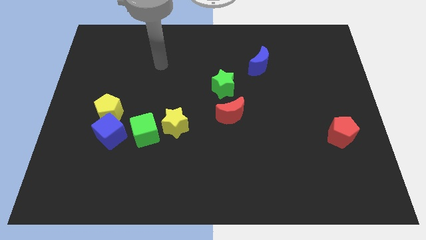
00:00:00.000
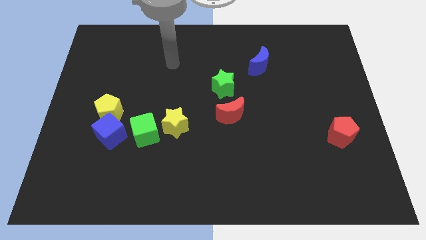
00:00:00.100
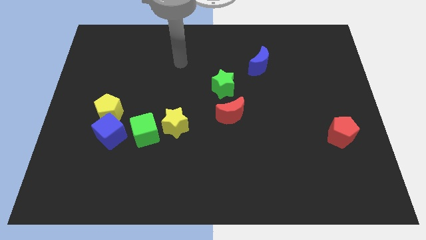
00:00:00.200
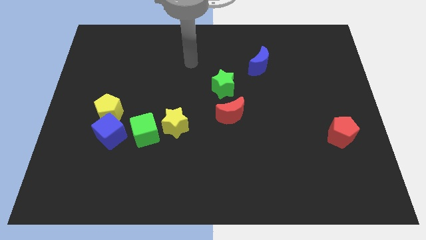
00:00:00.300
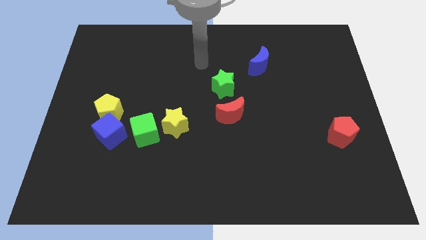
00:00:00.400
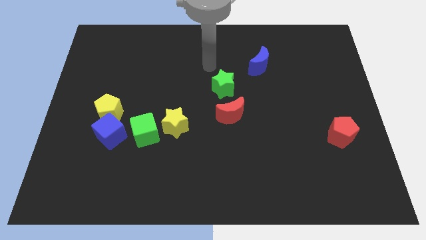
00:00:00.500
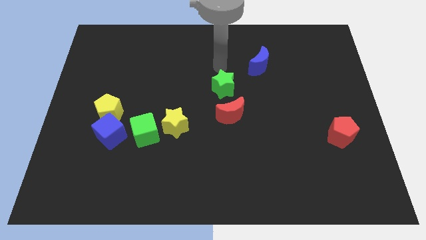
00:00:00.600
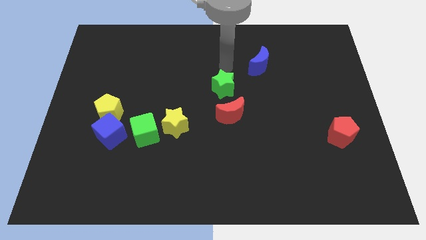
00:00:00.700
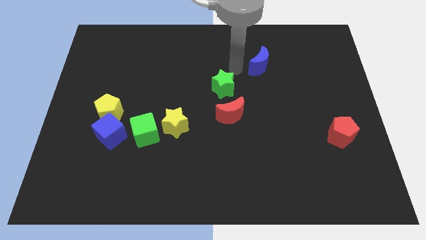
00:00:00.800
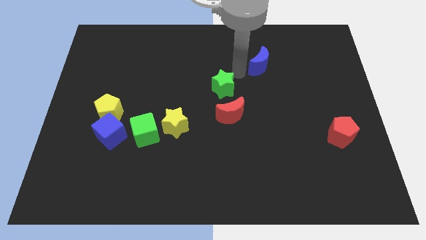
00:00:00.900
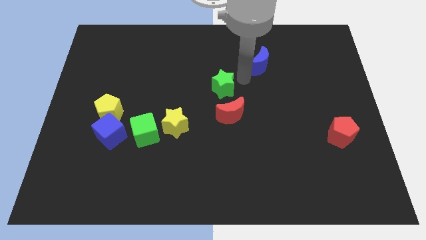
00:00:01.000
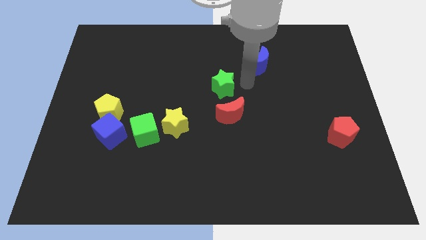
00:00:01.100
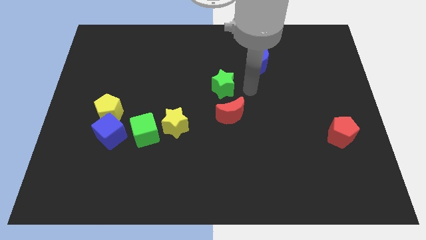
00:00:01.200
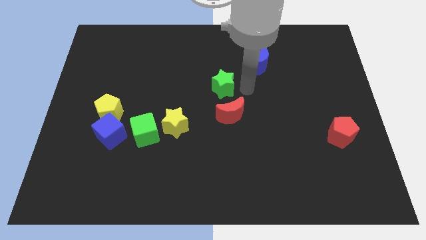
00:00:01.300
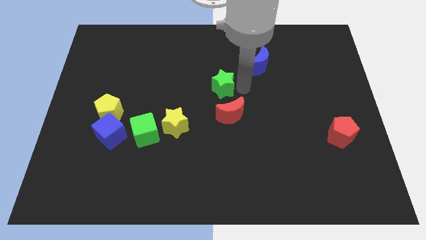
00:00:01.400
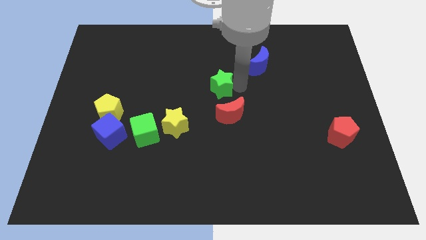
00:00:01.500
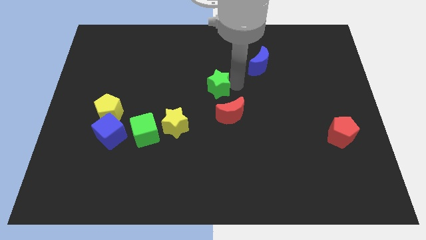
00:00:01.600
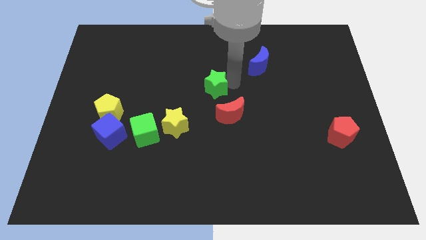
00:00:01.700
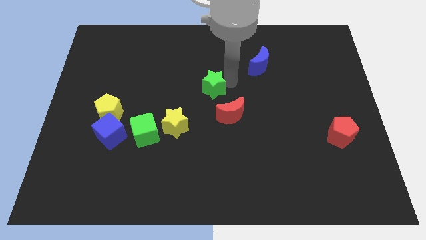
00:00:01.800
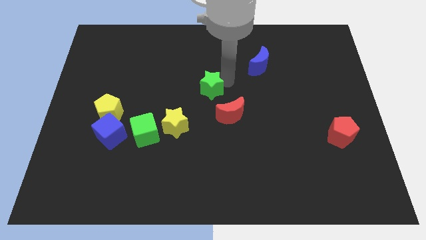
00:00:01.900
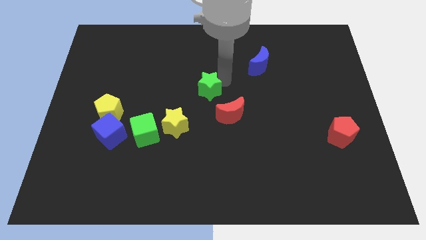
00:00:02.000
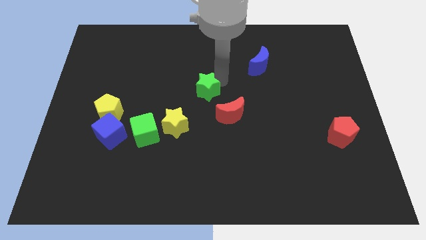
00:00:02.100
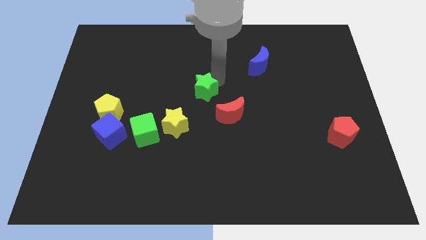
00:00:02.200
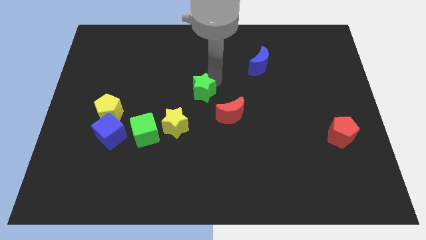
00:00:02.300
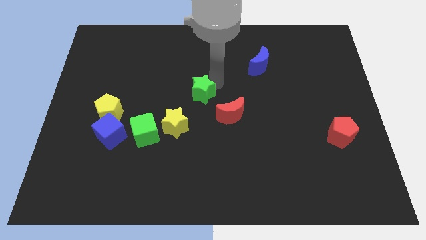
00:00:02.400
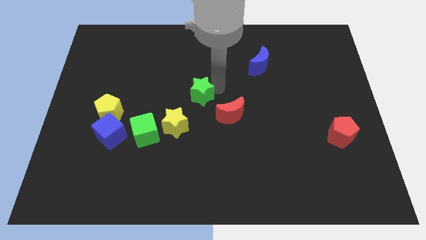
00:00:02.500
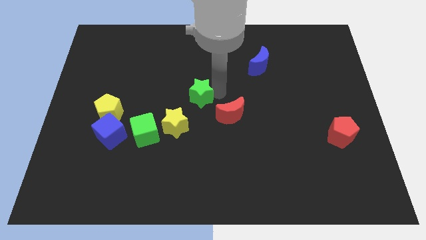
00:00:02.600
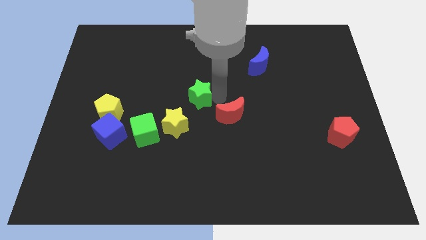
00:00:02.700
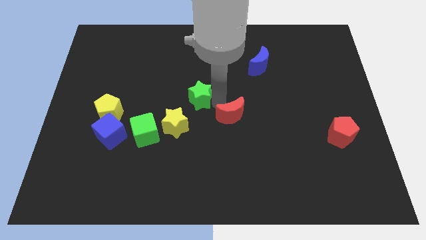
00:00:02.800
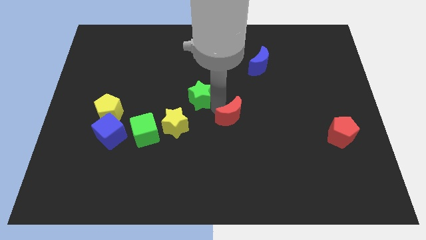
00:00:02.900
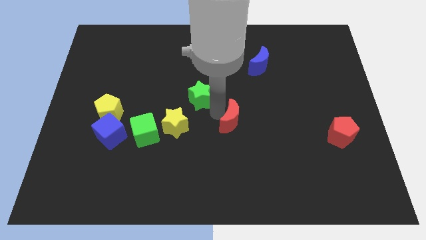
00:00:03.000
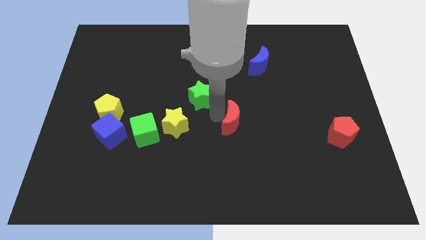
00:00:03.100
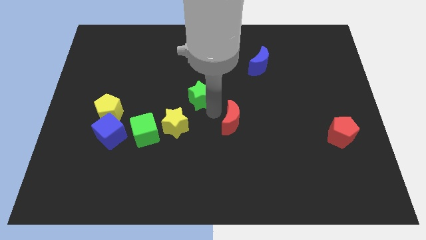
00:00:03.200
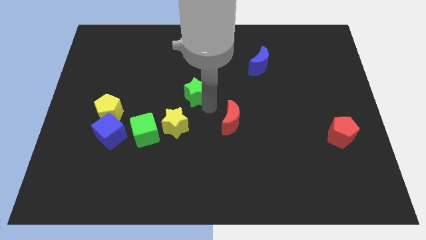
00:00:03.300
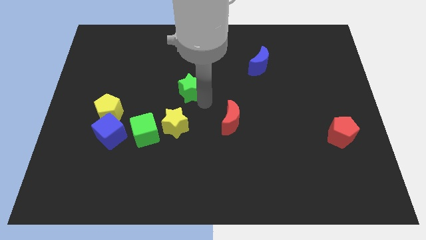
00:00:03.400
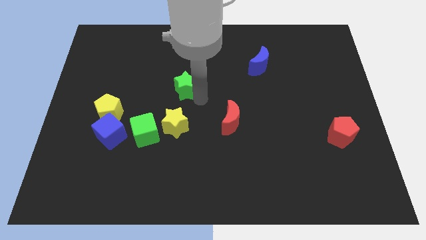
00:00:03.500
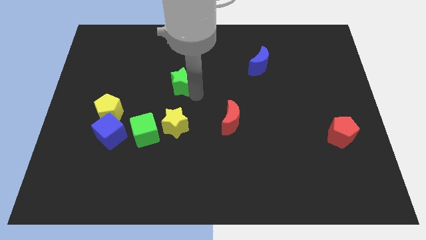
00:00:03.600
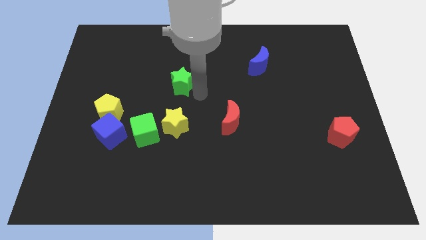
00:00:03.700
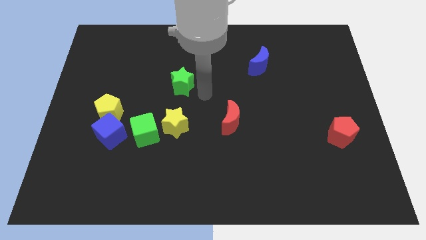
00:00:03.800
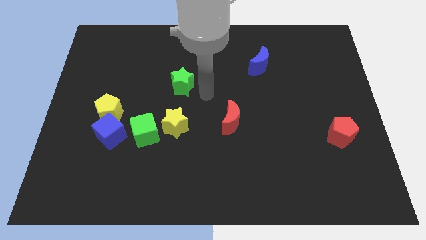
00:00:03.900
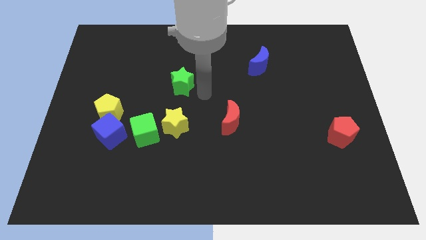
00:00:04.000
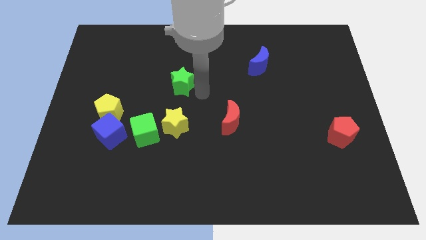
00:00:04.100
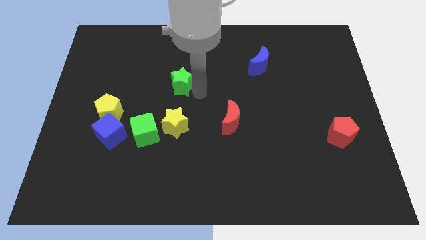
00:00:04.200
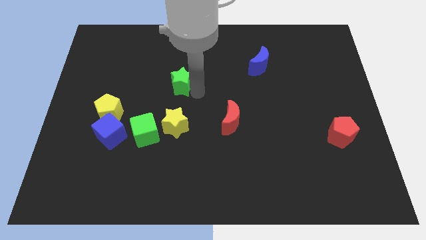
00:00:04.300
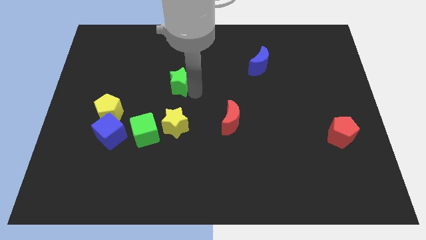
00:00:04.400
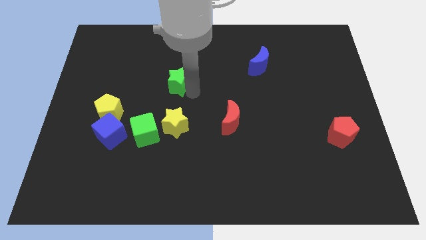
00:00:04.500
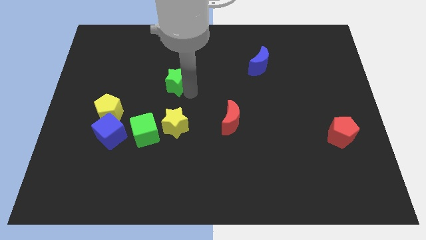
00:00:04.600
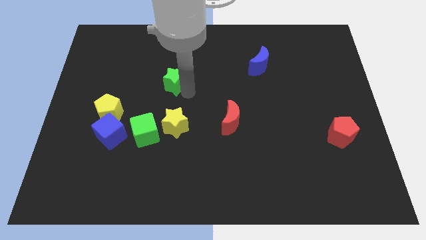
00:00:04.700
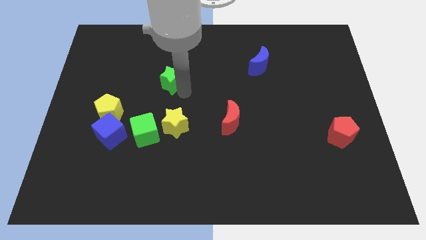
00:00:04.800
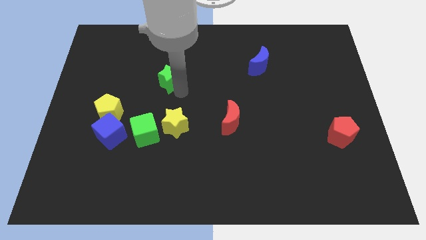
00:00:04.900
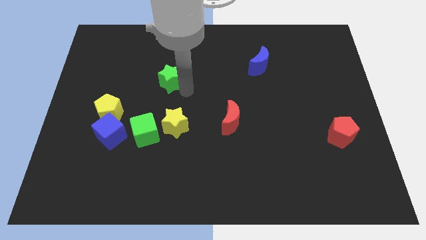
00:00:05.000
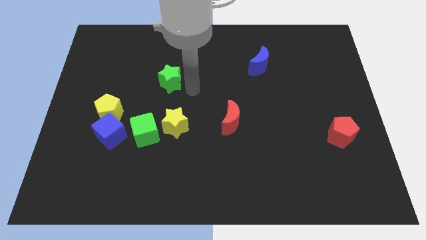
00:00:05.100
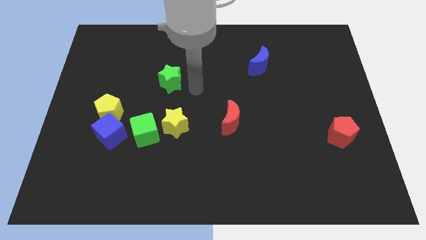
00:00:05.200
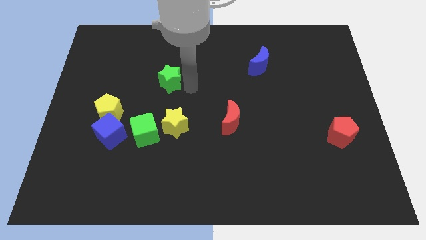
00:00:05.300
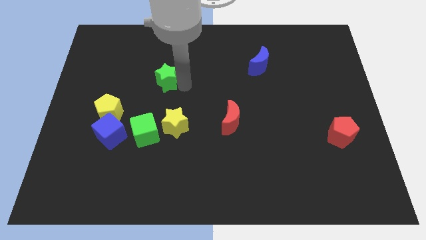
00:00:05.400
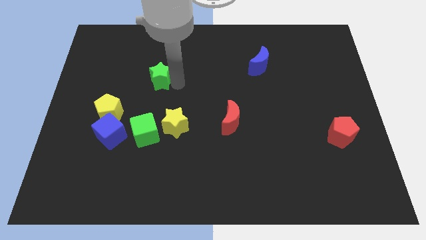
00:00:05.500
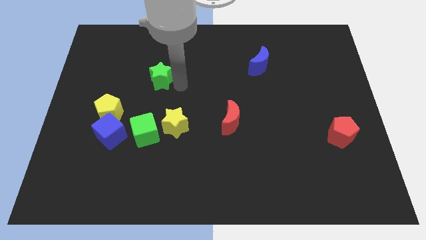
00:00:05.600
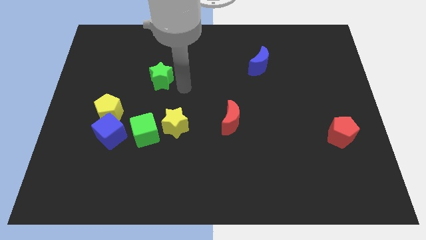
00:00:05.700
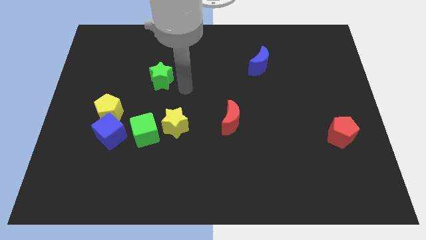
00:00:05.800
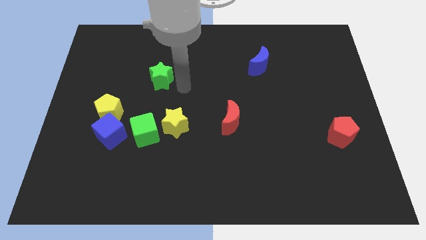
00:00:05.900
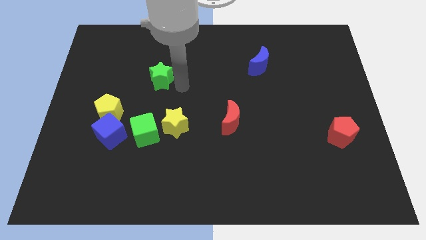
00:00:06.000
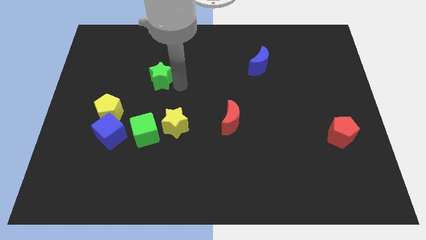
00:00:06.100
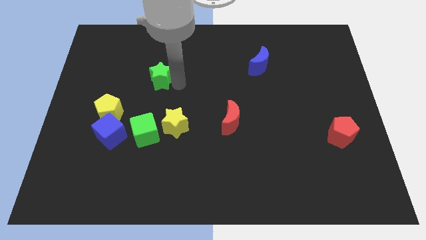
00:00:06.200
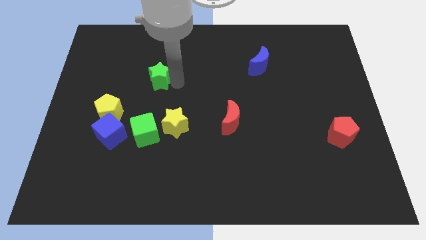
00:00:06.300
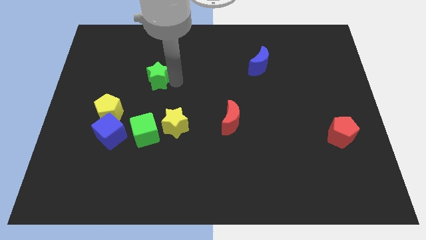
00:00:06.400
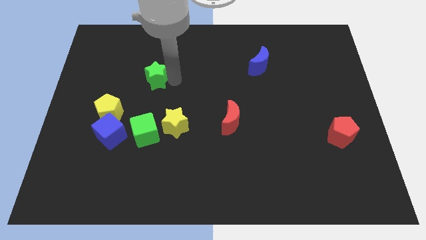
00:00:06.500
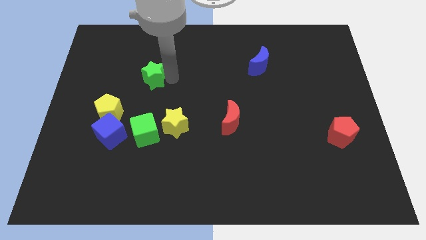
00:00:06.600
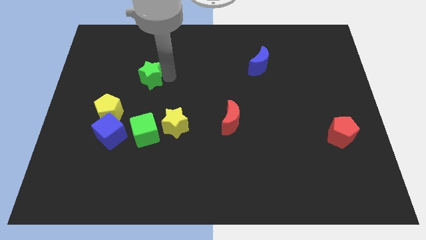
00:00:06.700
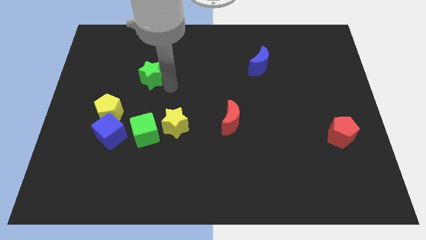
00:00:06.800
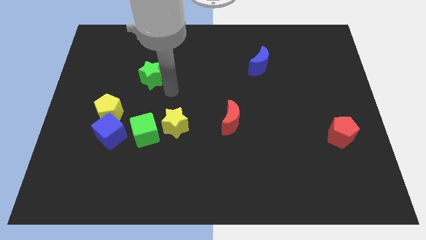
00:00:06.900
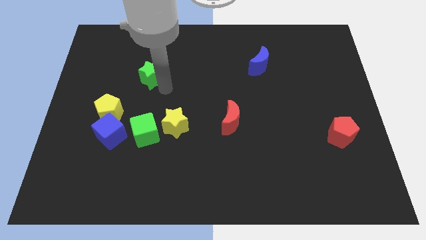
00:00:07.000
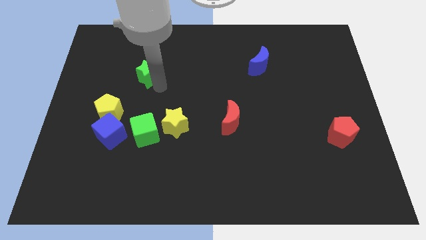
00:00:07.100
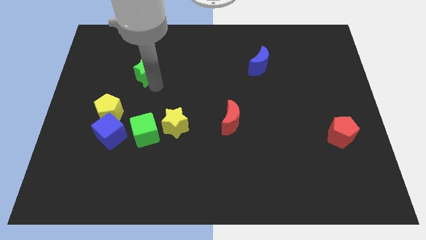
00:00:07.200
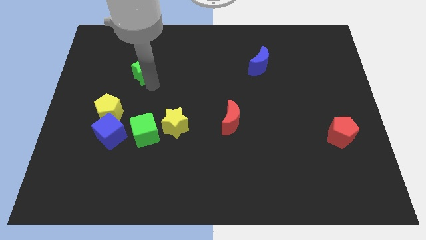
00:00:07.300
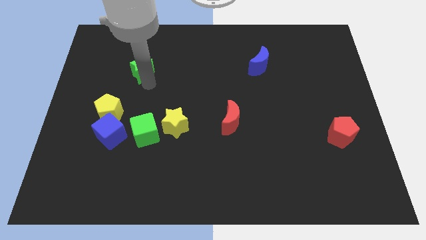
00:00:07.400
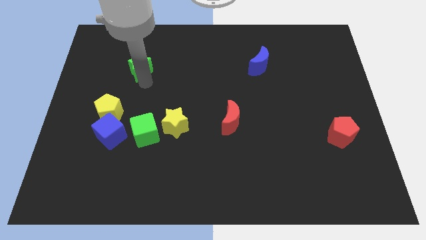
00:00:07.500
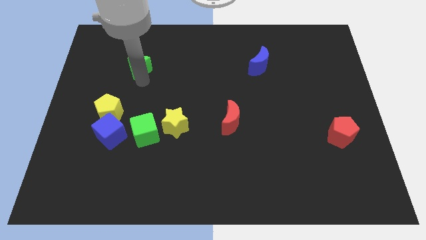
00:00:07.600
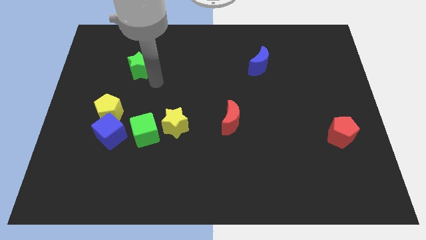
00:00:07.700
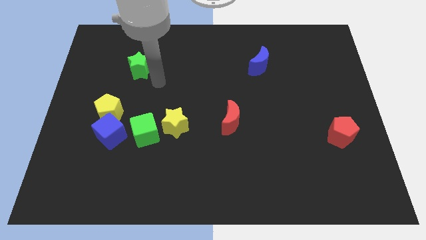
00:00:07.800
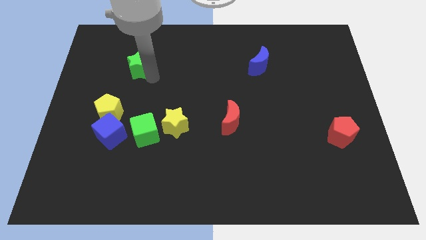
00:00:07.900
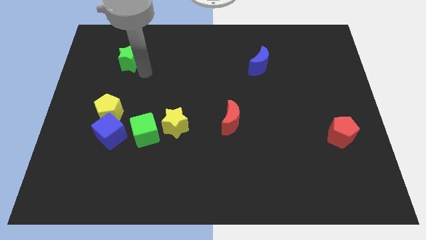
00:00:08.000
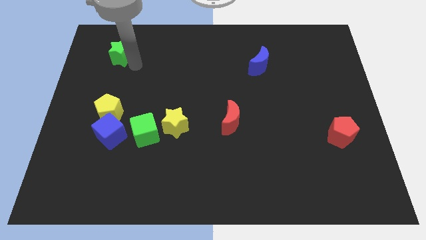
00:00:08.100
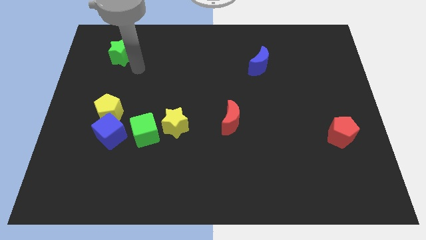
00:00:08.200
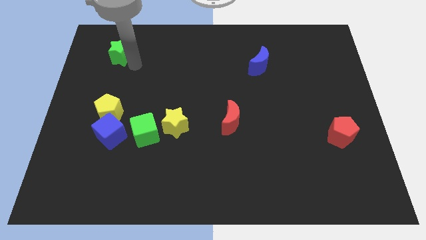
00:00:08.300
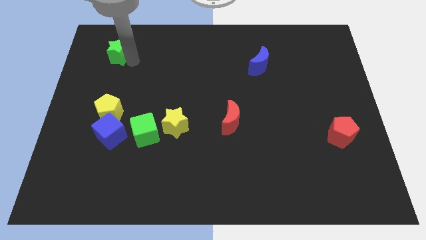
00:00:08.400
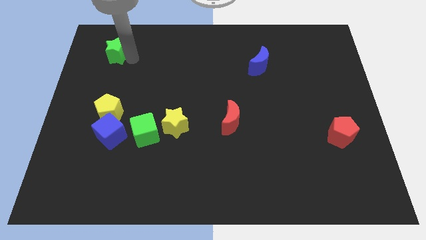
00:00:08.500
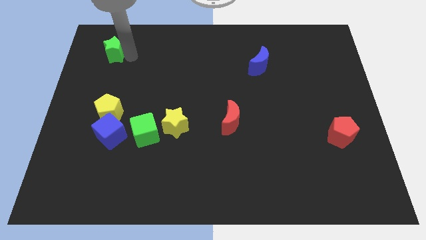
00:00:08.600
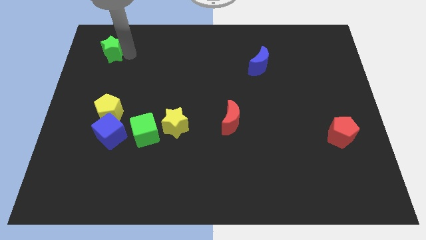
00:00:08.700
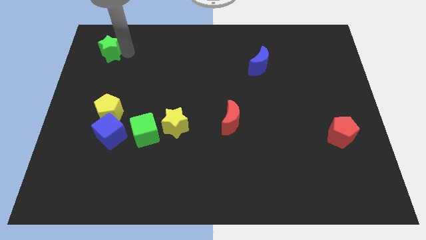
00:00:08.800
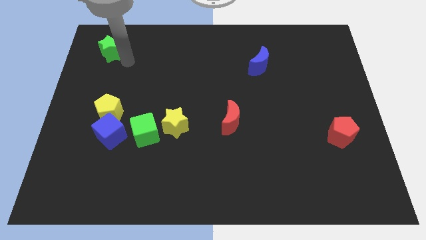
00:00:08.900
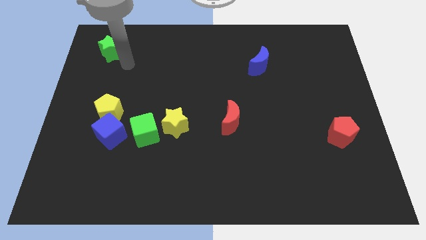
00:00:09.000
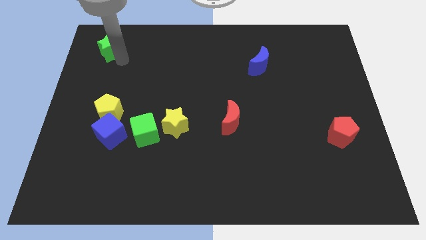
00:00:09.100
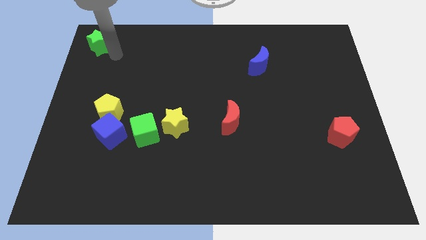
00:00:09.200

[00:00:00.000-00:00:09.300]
push the green star to the top left corner
